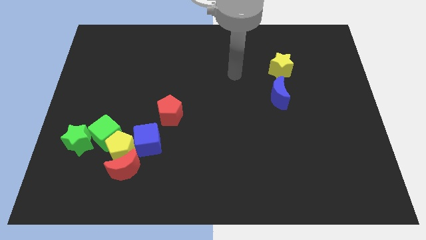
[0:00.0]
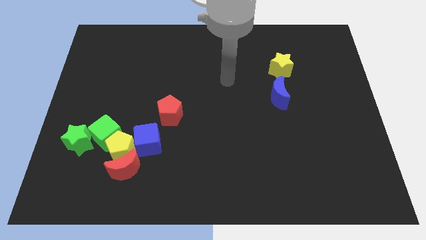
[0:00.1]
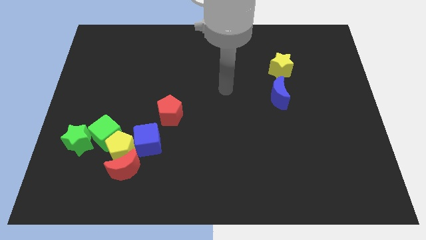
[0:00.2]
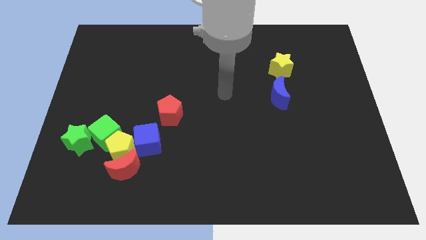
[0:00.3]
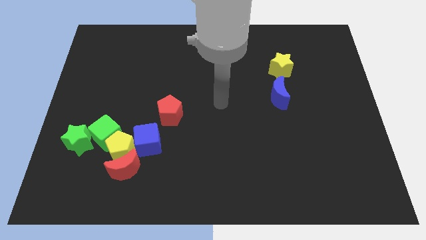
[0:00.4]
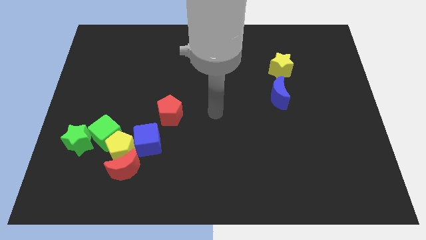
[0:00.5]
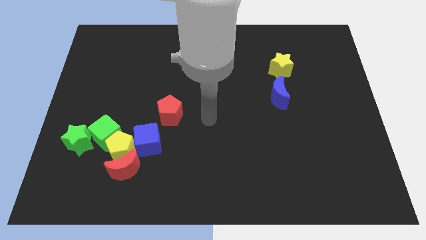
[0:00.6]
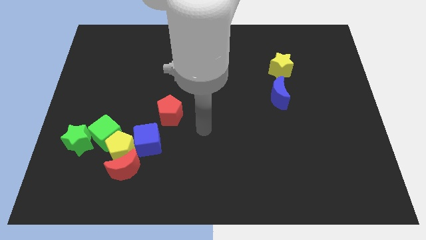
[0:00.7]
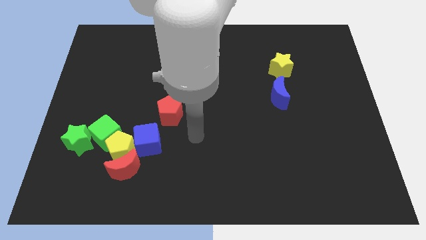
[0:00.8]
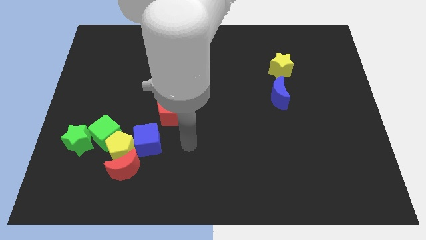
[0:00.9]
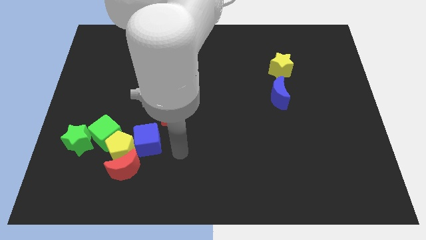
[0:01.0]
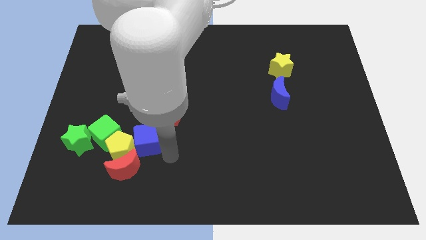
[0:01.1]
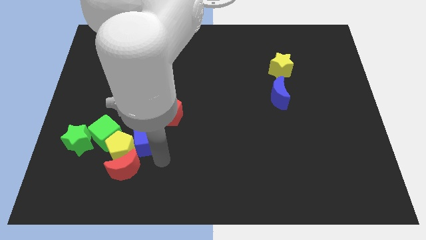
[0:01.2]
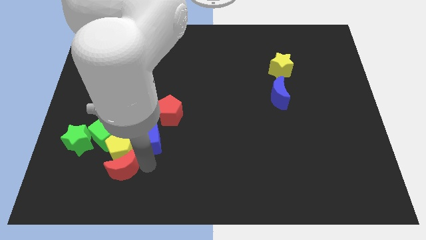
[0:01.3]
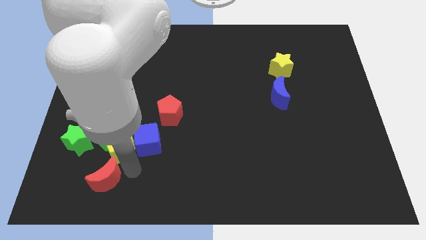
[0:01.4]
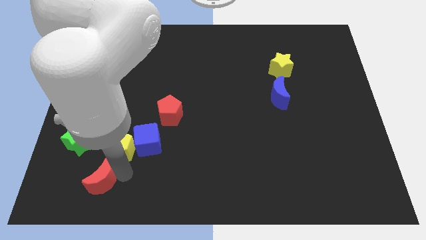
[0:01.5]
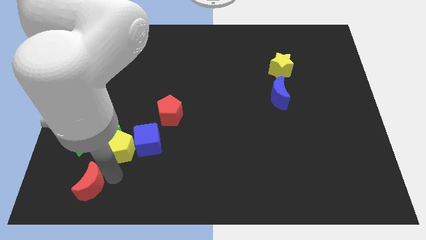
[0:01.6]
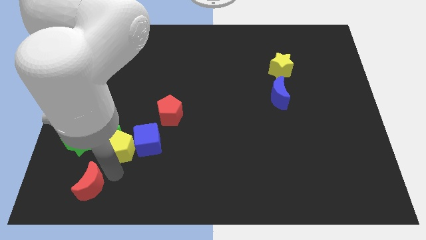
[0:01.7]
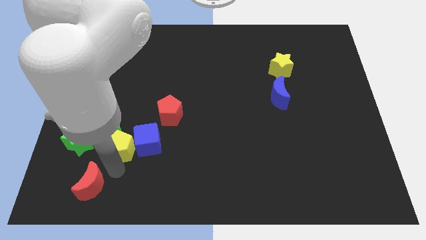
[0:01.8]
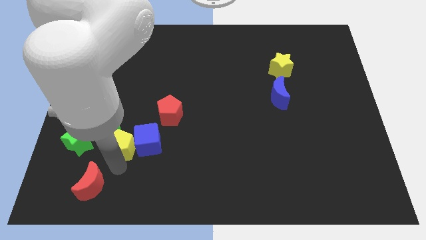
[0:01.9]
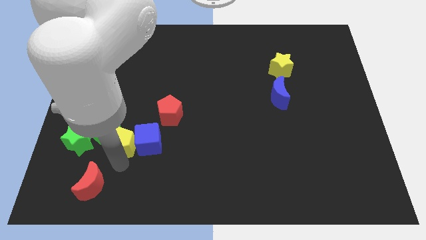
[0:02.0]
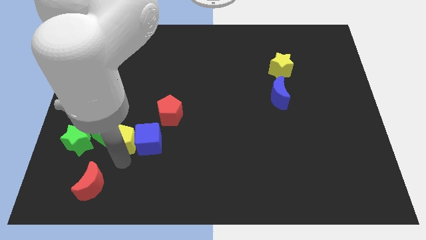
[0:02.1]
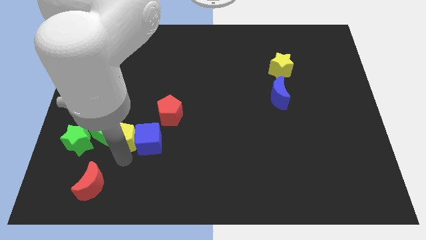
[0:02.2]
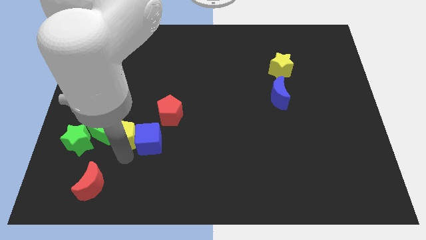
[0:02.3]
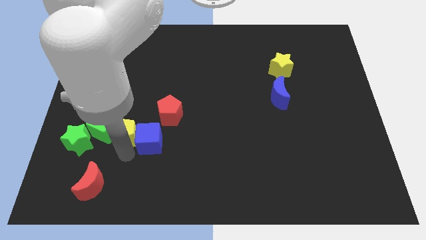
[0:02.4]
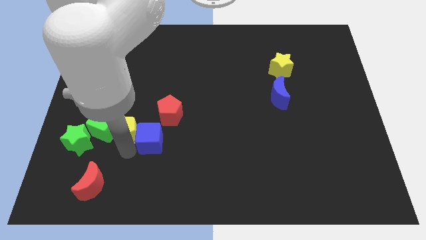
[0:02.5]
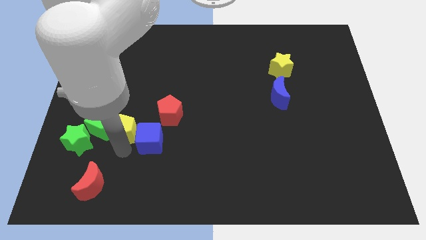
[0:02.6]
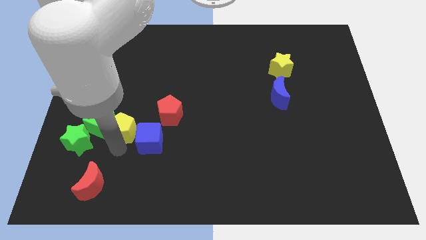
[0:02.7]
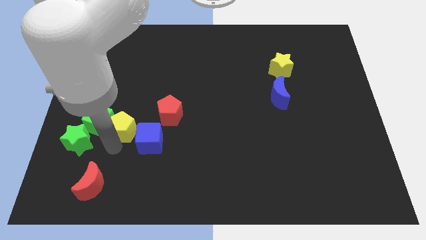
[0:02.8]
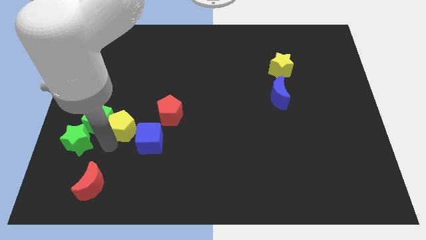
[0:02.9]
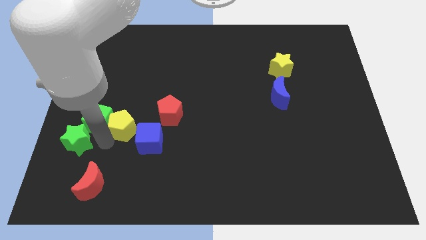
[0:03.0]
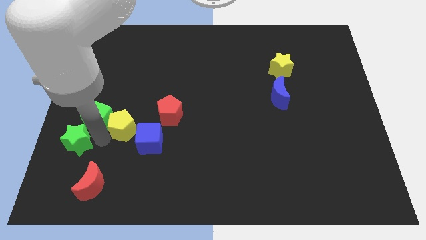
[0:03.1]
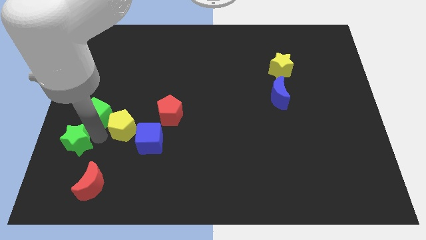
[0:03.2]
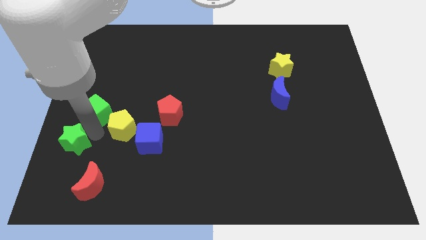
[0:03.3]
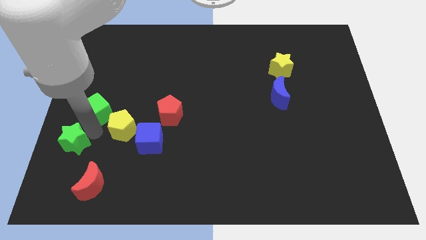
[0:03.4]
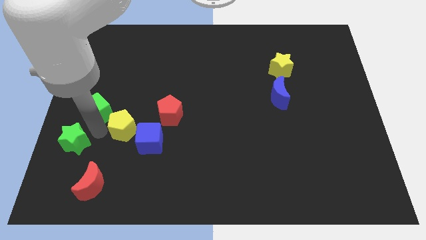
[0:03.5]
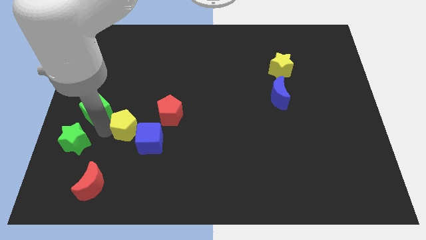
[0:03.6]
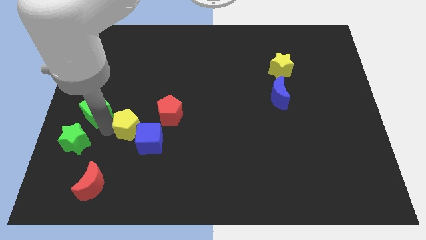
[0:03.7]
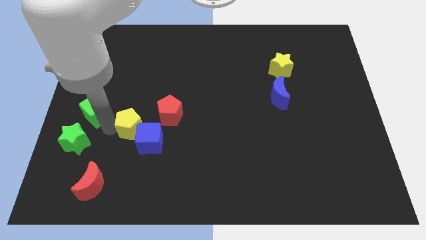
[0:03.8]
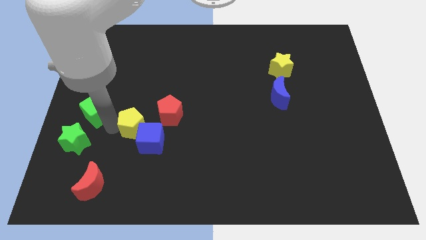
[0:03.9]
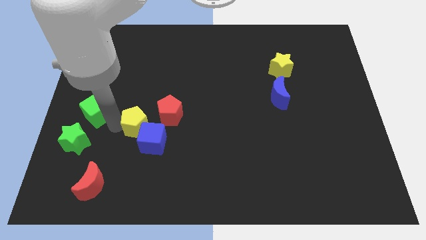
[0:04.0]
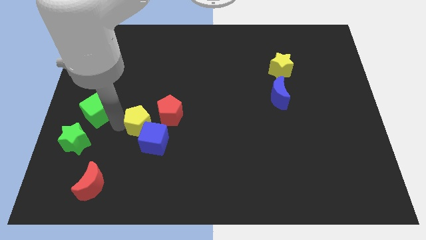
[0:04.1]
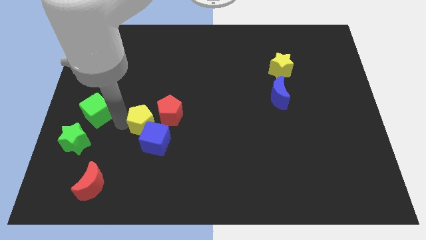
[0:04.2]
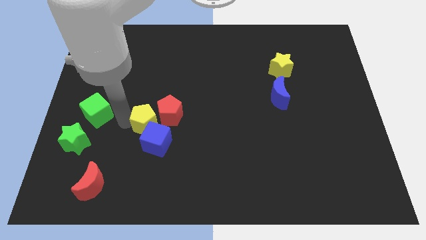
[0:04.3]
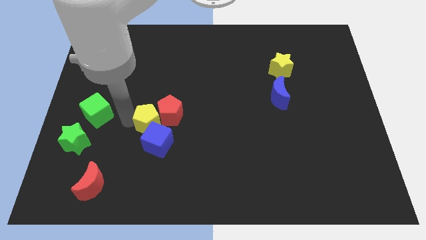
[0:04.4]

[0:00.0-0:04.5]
move the yellow pentagon away from the clump

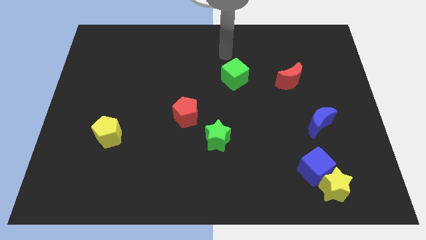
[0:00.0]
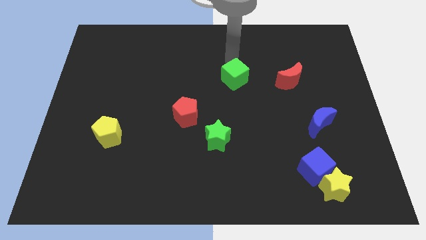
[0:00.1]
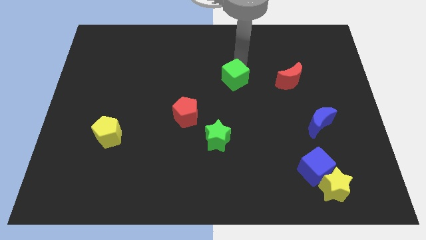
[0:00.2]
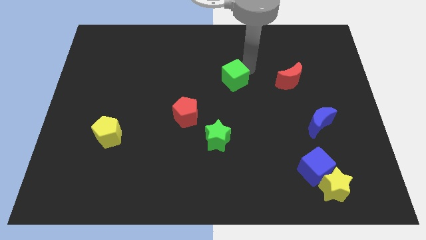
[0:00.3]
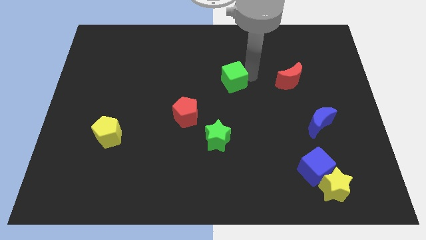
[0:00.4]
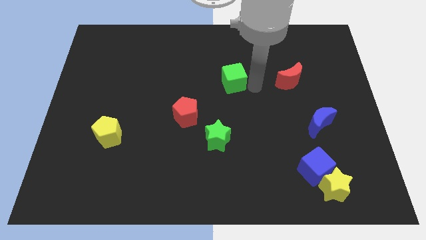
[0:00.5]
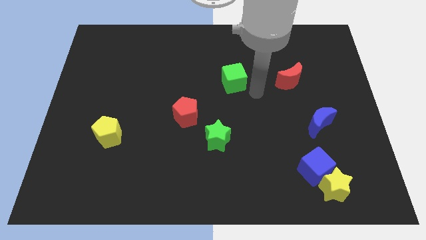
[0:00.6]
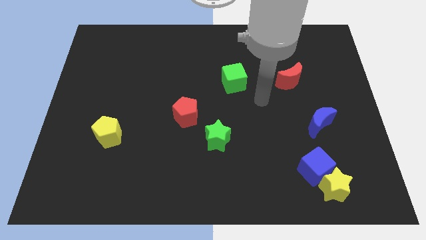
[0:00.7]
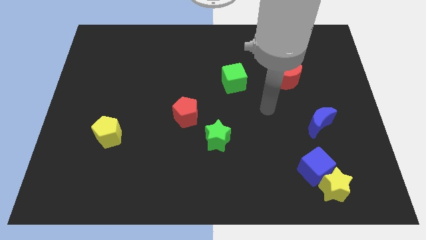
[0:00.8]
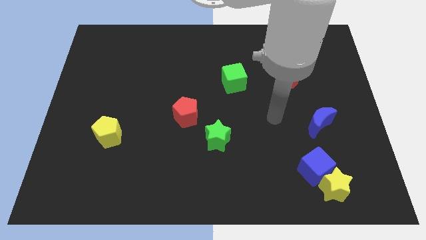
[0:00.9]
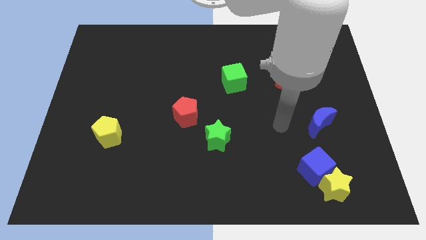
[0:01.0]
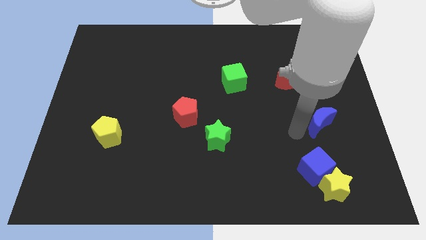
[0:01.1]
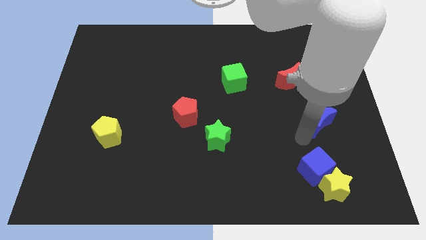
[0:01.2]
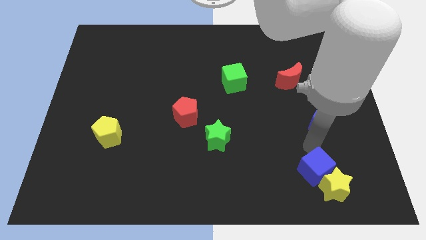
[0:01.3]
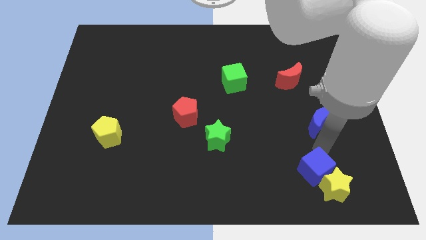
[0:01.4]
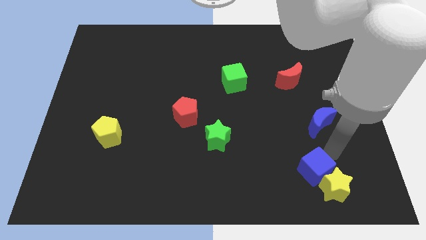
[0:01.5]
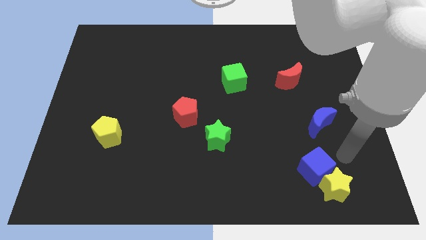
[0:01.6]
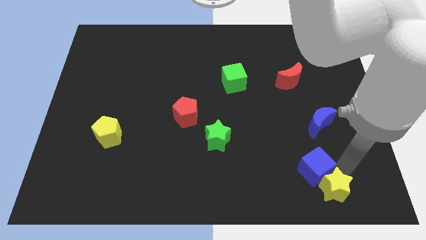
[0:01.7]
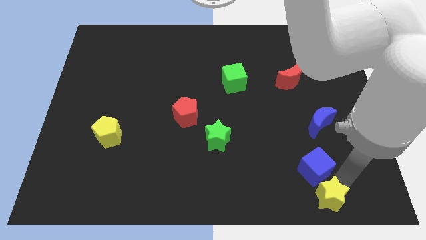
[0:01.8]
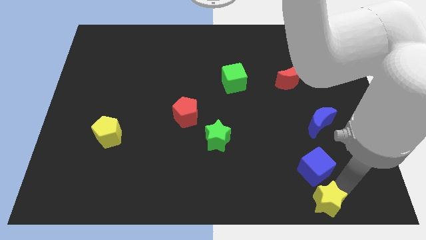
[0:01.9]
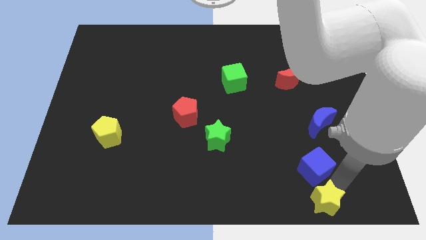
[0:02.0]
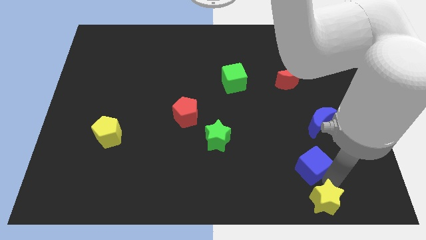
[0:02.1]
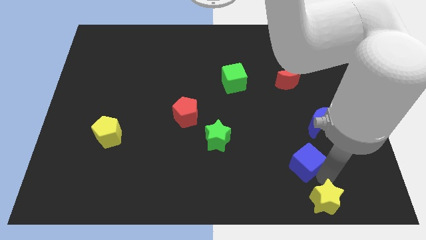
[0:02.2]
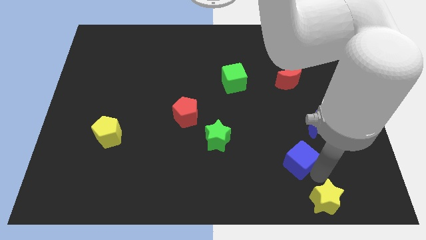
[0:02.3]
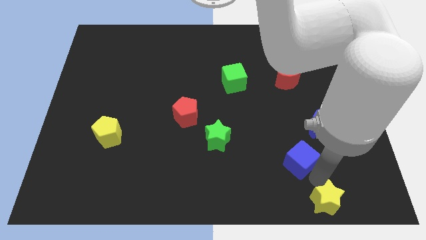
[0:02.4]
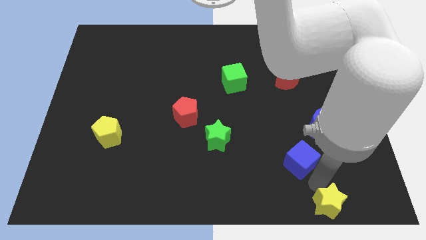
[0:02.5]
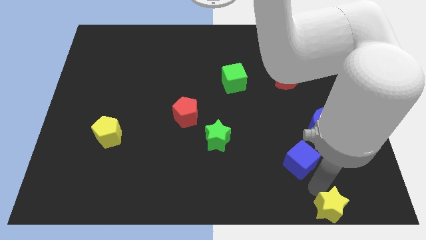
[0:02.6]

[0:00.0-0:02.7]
move the blue cube away from the yellow star

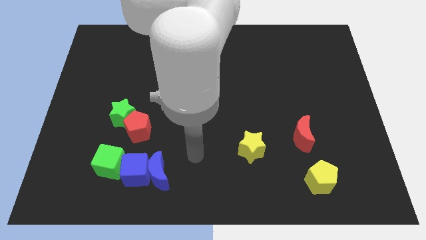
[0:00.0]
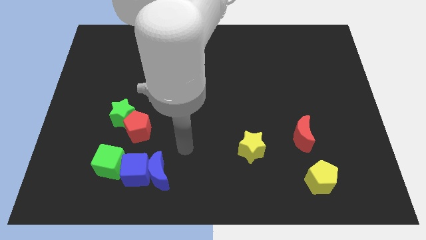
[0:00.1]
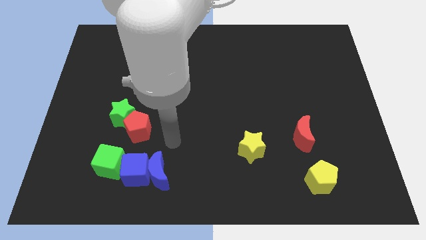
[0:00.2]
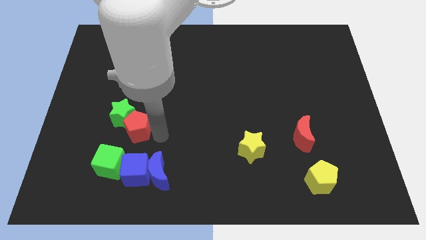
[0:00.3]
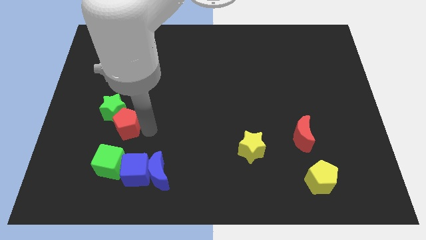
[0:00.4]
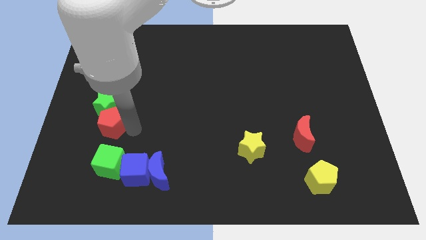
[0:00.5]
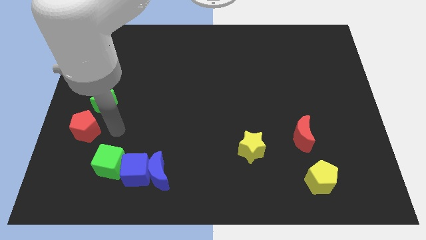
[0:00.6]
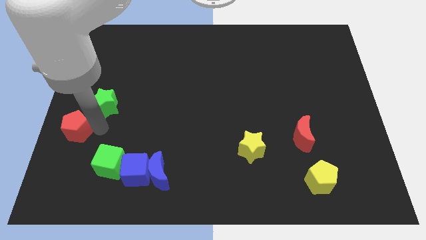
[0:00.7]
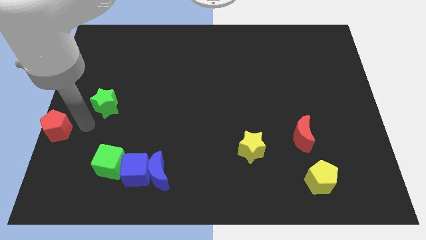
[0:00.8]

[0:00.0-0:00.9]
separate the green star from the red pentagon

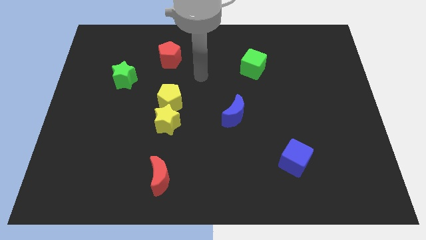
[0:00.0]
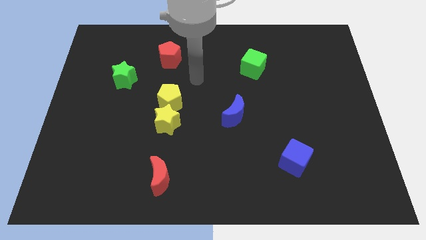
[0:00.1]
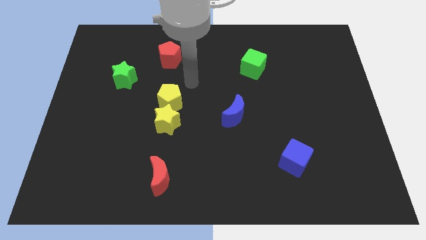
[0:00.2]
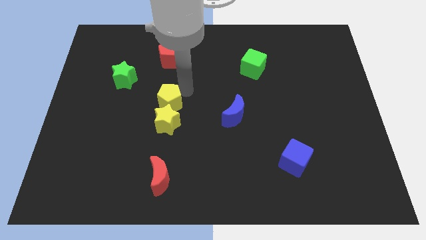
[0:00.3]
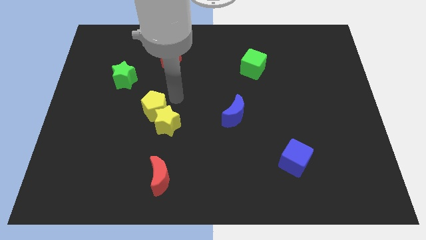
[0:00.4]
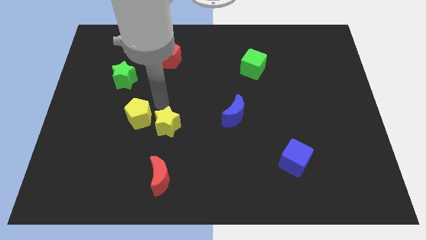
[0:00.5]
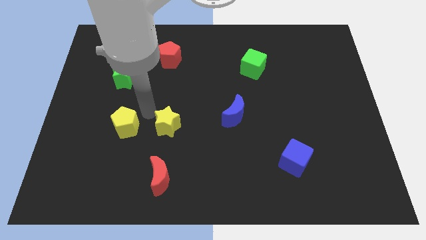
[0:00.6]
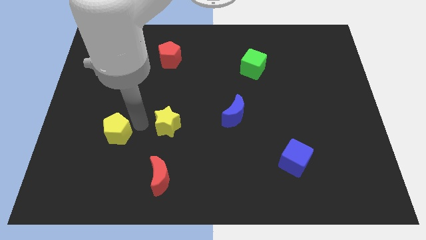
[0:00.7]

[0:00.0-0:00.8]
pull the yellow star apart from the yellow pentagon

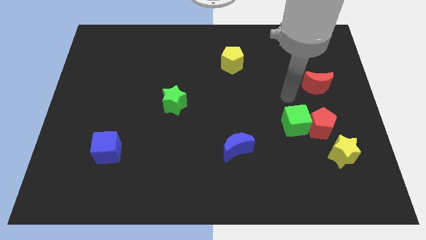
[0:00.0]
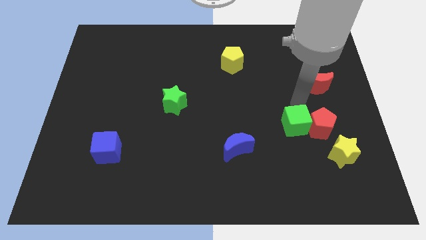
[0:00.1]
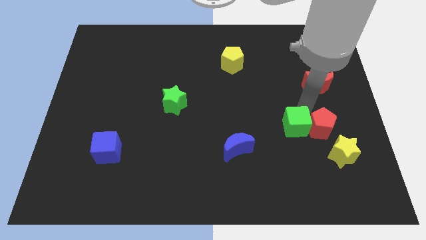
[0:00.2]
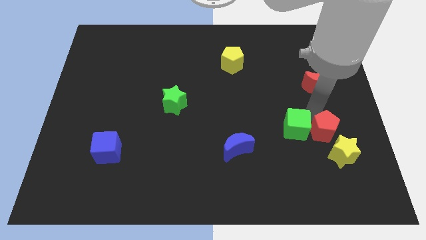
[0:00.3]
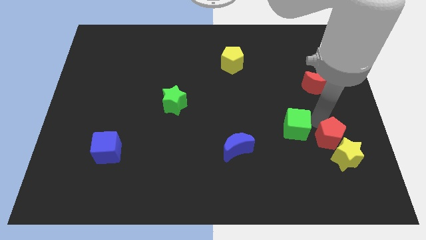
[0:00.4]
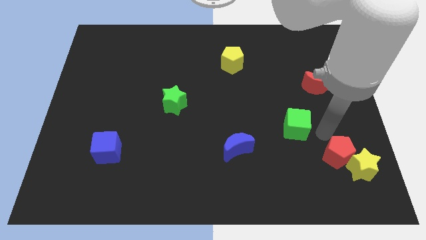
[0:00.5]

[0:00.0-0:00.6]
pull the green cube apart from the red pentagon
